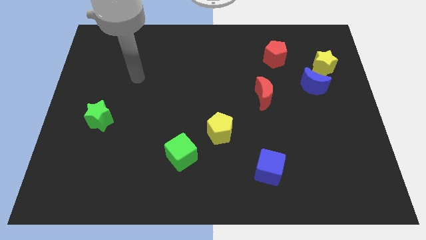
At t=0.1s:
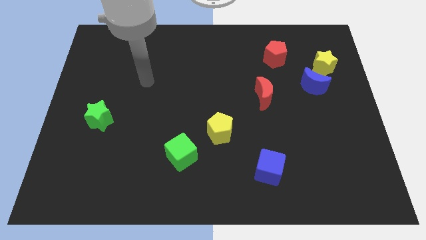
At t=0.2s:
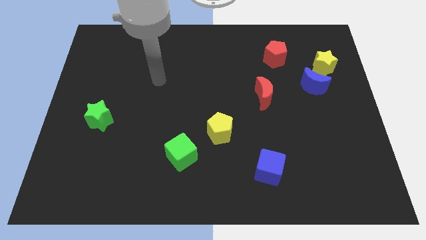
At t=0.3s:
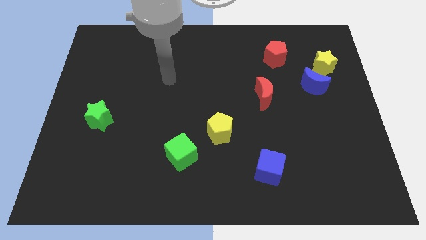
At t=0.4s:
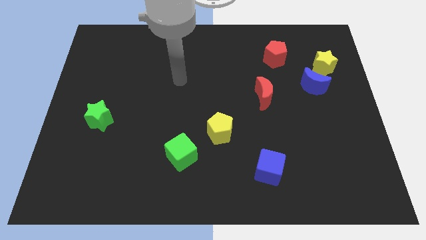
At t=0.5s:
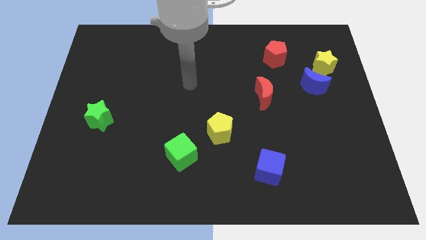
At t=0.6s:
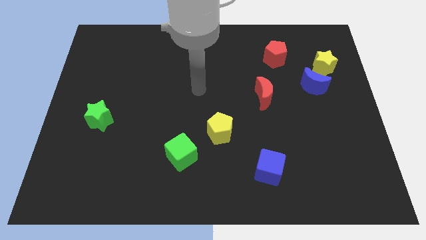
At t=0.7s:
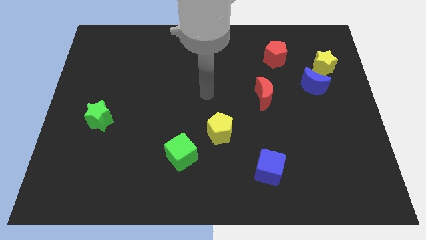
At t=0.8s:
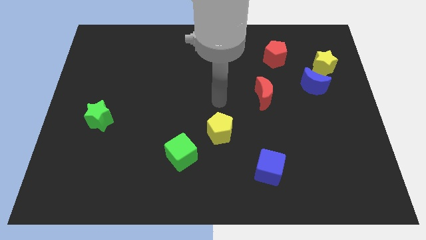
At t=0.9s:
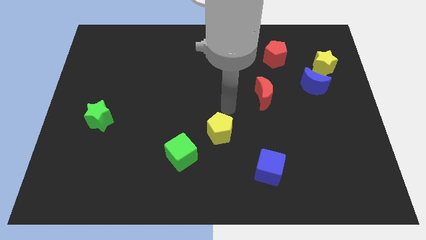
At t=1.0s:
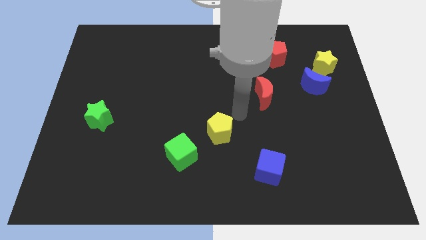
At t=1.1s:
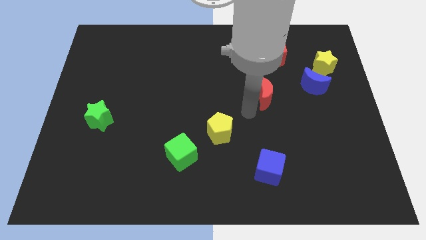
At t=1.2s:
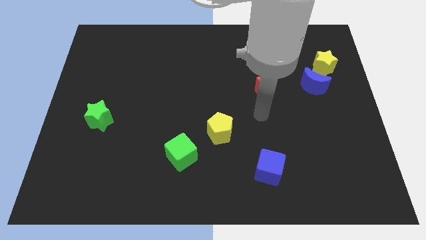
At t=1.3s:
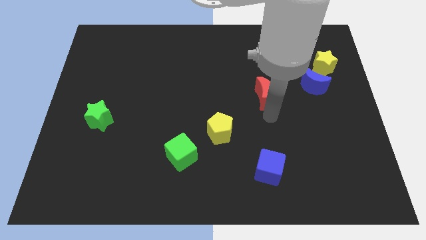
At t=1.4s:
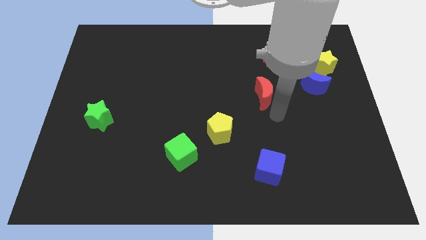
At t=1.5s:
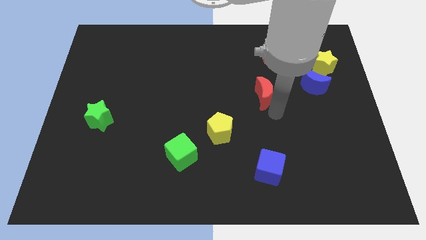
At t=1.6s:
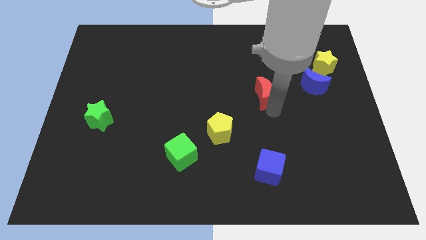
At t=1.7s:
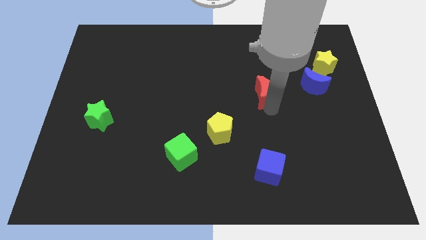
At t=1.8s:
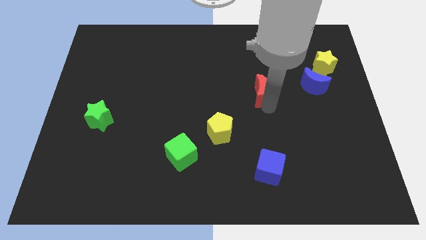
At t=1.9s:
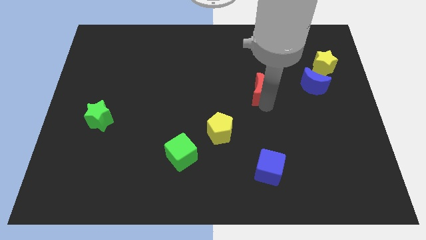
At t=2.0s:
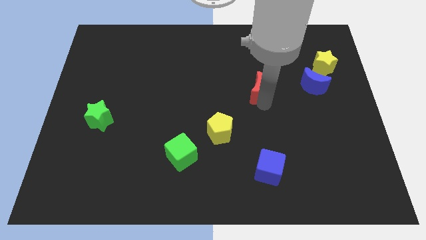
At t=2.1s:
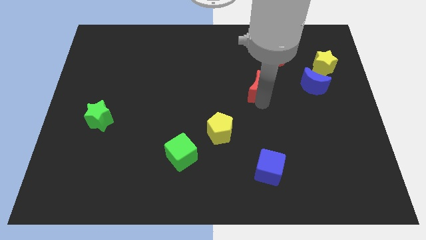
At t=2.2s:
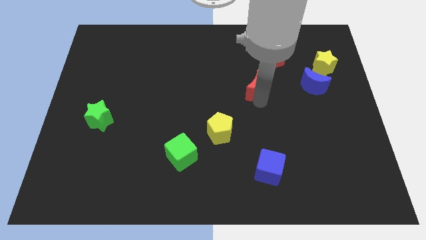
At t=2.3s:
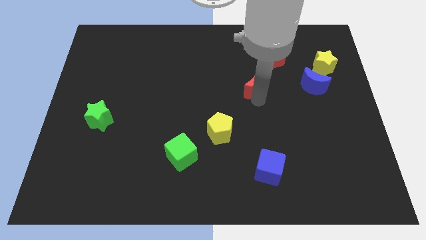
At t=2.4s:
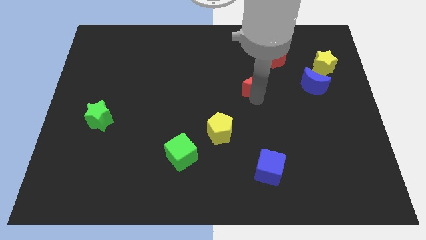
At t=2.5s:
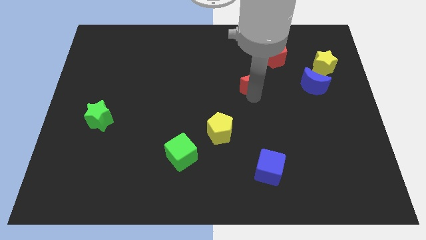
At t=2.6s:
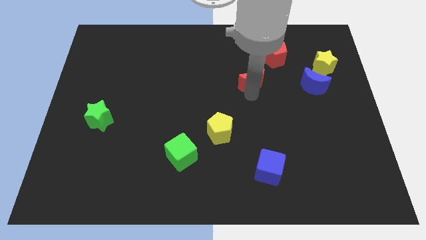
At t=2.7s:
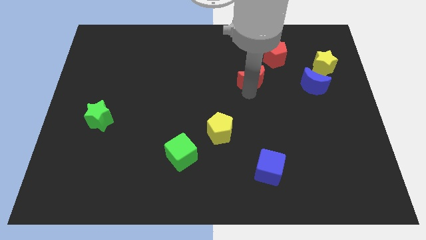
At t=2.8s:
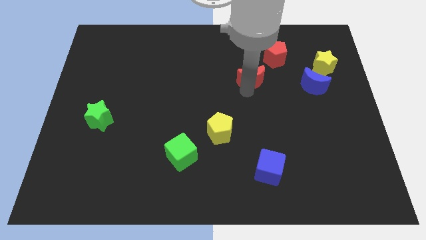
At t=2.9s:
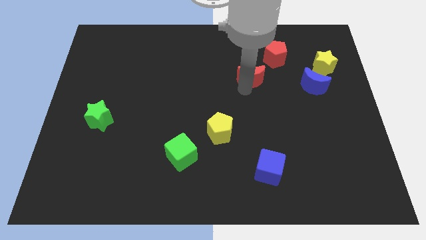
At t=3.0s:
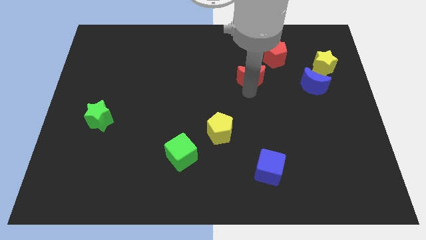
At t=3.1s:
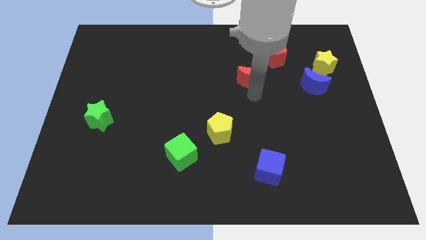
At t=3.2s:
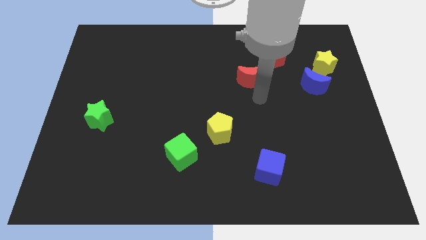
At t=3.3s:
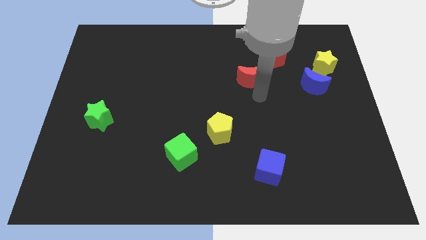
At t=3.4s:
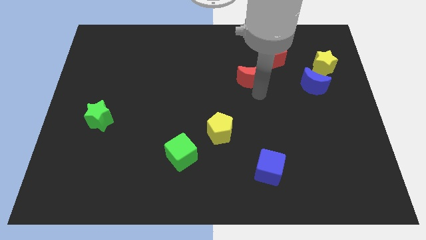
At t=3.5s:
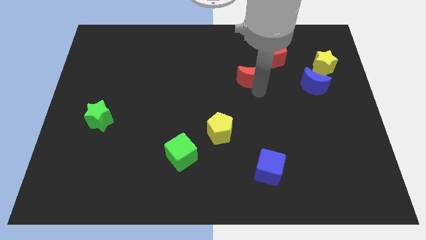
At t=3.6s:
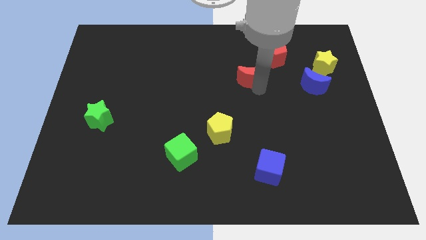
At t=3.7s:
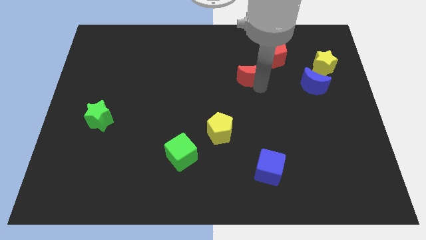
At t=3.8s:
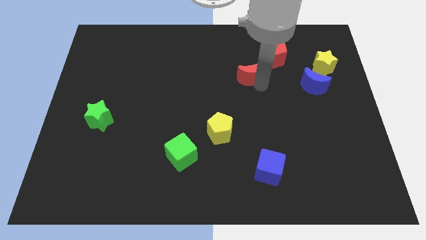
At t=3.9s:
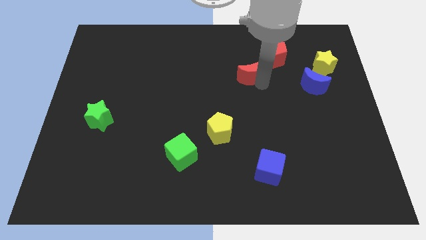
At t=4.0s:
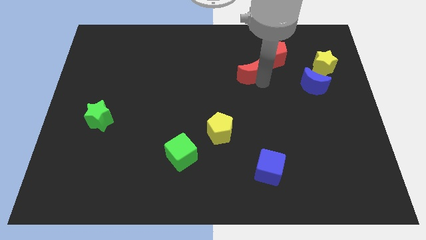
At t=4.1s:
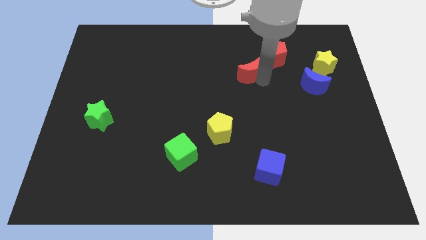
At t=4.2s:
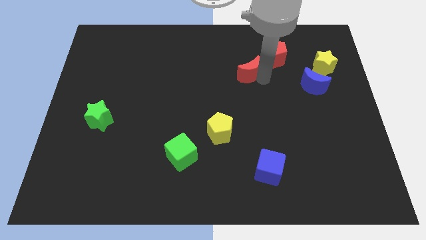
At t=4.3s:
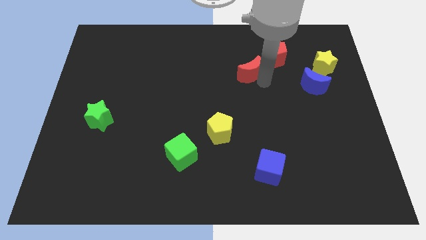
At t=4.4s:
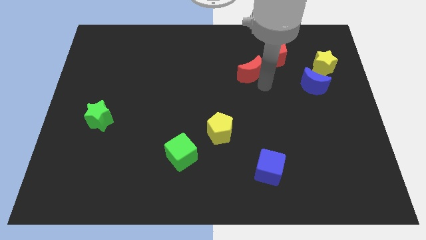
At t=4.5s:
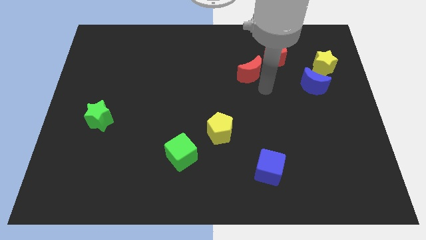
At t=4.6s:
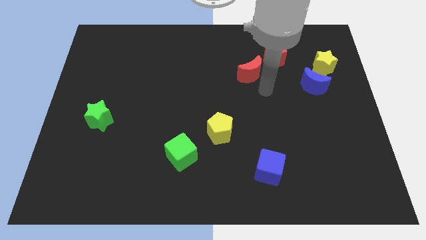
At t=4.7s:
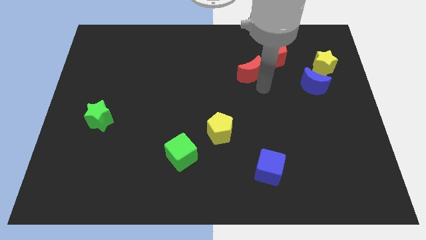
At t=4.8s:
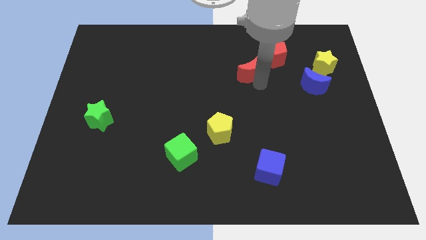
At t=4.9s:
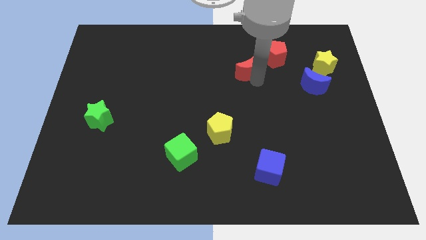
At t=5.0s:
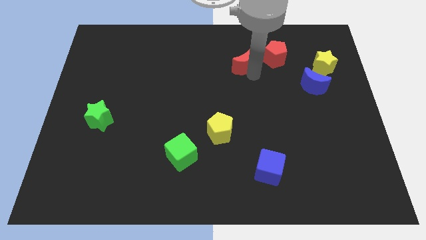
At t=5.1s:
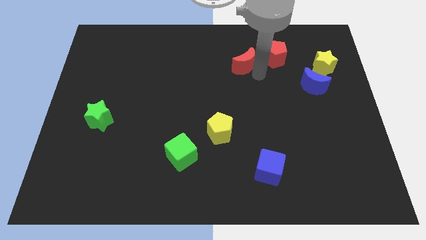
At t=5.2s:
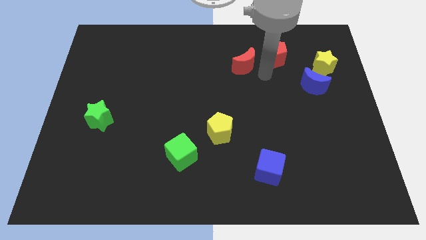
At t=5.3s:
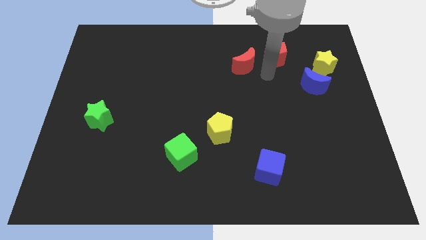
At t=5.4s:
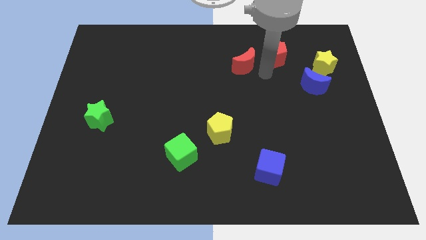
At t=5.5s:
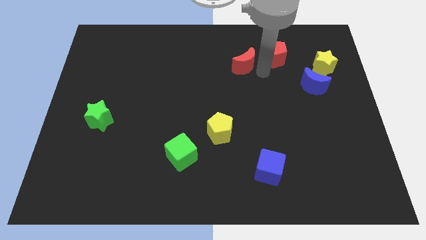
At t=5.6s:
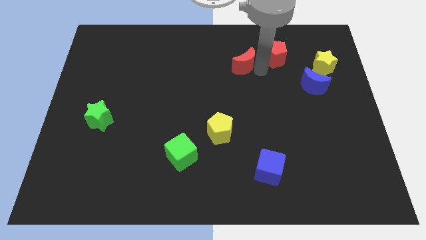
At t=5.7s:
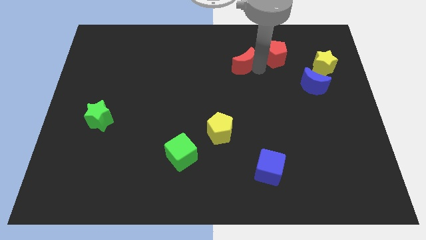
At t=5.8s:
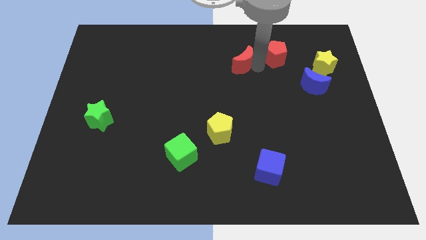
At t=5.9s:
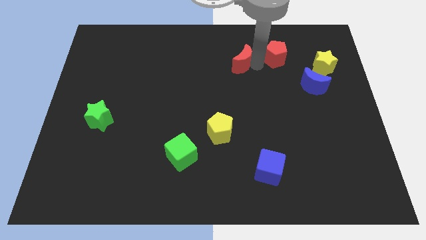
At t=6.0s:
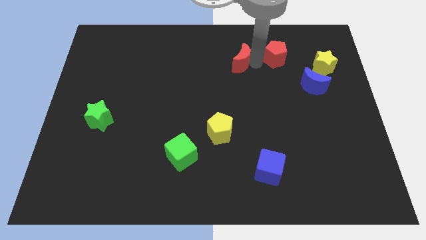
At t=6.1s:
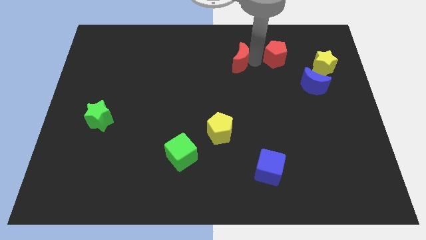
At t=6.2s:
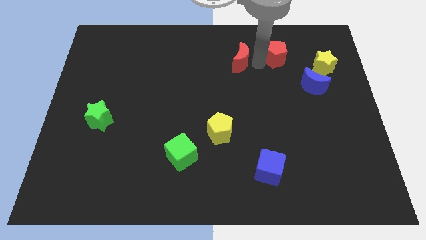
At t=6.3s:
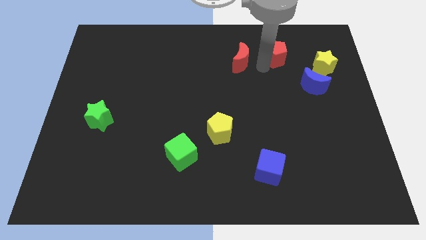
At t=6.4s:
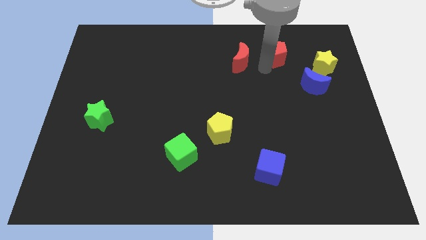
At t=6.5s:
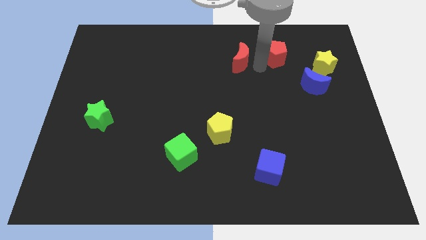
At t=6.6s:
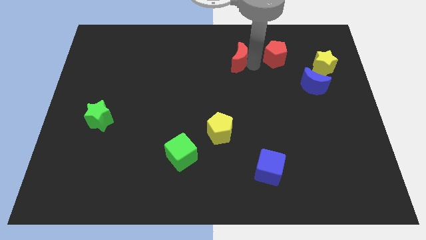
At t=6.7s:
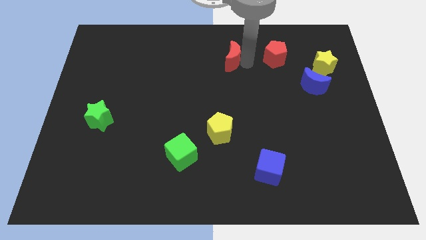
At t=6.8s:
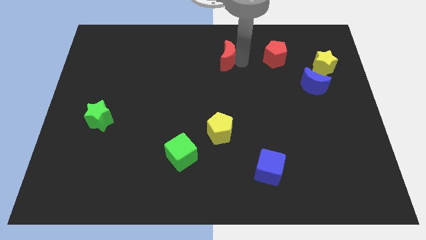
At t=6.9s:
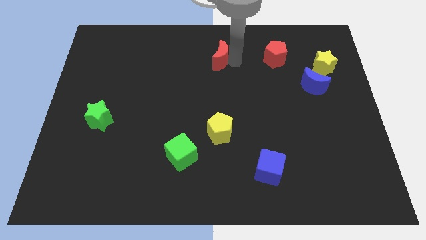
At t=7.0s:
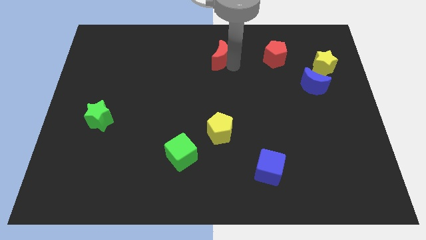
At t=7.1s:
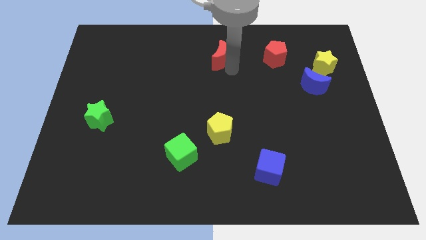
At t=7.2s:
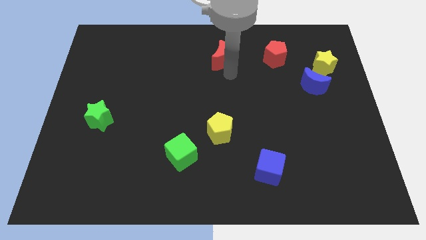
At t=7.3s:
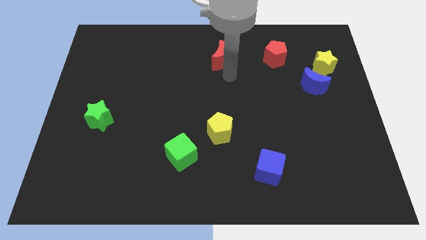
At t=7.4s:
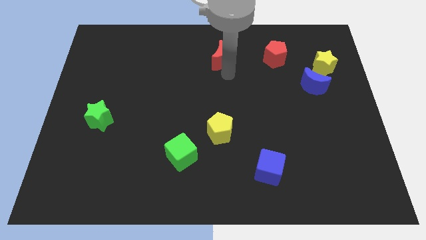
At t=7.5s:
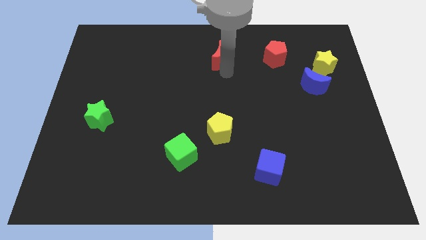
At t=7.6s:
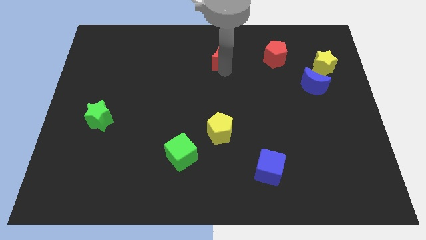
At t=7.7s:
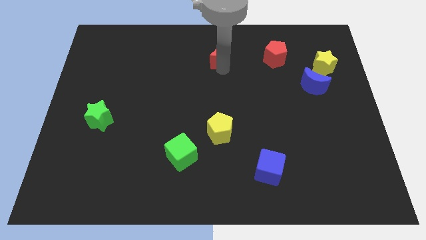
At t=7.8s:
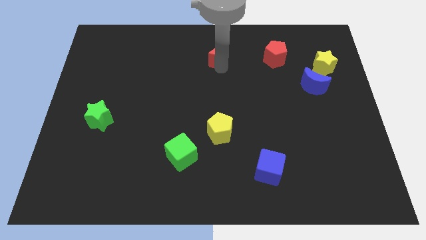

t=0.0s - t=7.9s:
move the red moon to the top side
